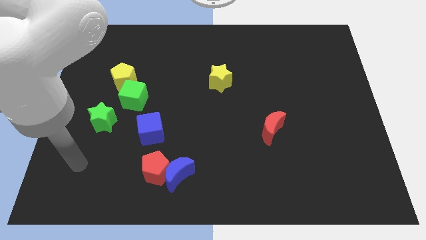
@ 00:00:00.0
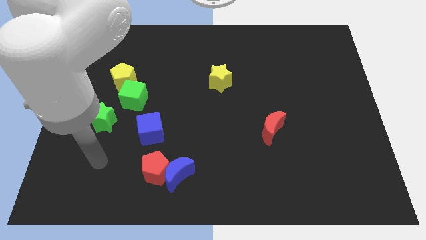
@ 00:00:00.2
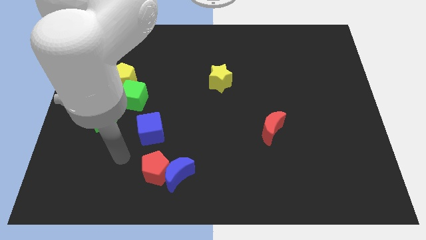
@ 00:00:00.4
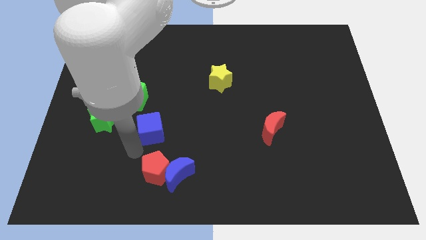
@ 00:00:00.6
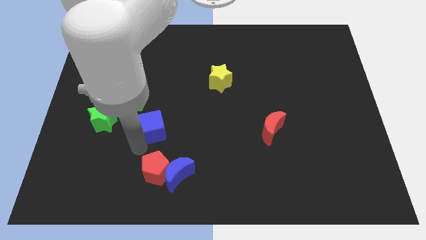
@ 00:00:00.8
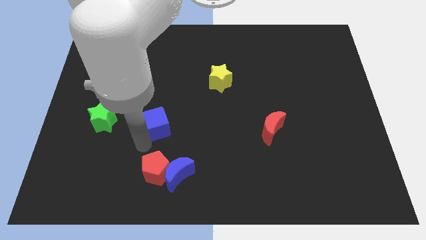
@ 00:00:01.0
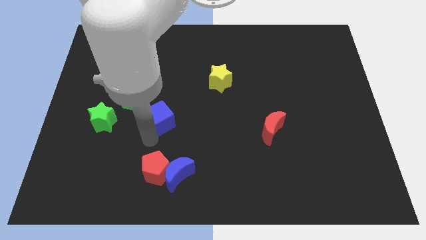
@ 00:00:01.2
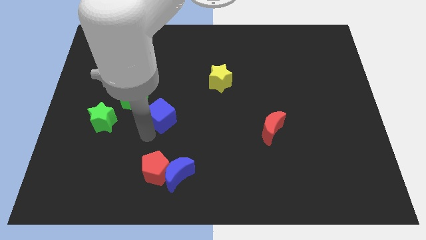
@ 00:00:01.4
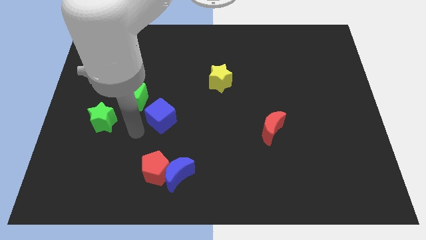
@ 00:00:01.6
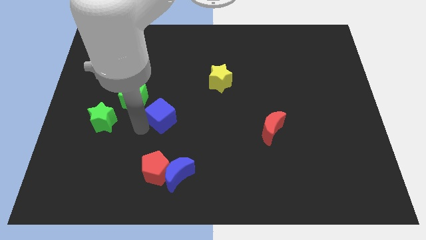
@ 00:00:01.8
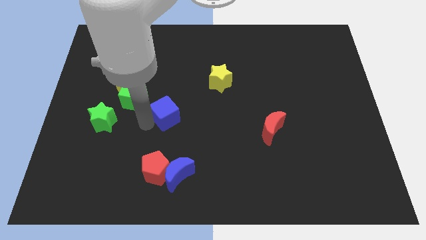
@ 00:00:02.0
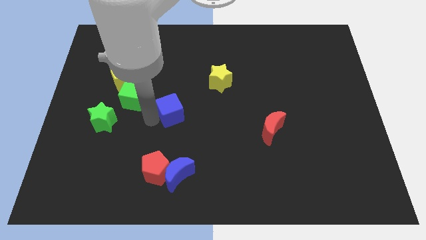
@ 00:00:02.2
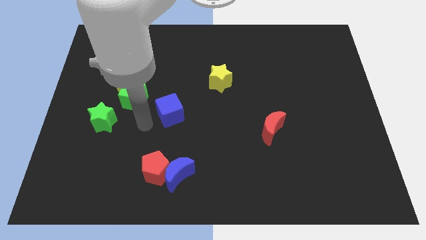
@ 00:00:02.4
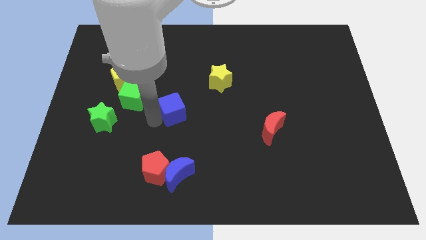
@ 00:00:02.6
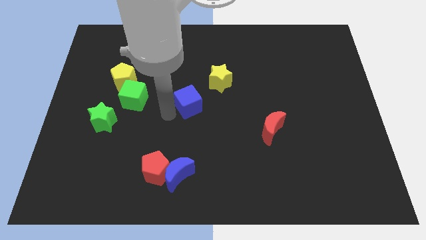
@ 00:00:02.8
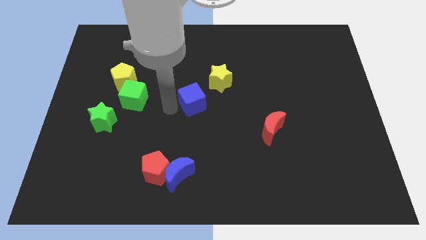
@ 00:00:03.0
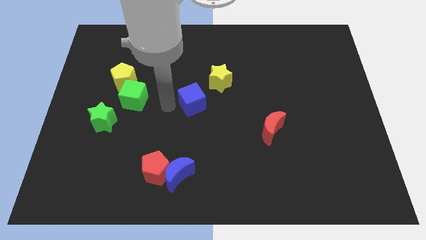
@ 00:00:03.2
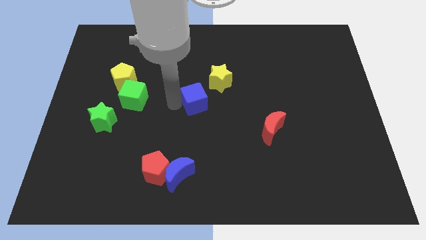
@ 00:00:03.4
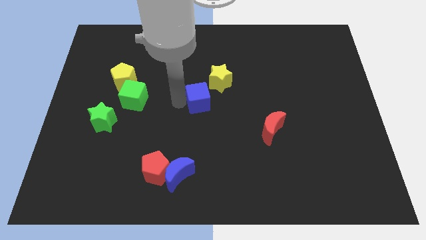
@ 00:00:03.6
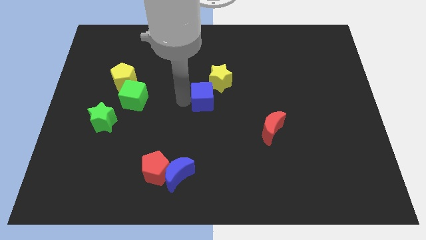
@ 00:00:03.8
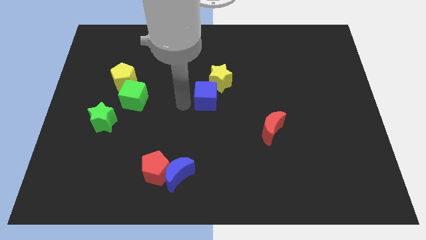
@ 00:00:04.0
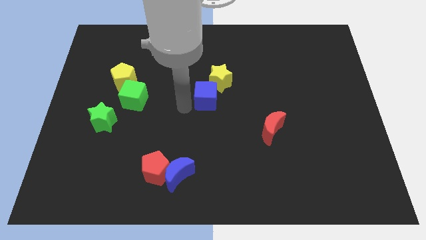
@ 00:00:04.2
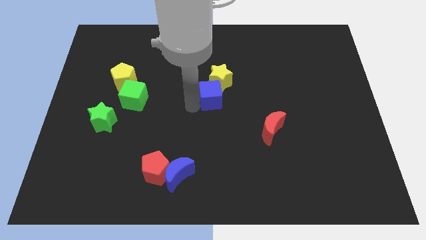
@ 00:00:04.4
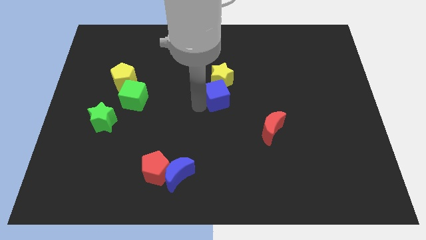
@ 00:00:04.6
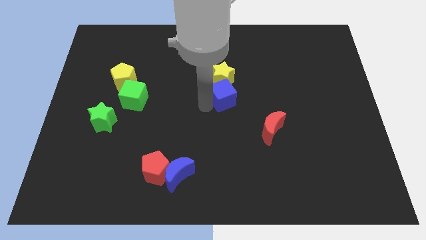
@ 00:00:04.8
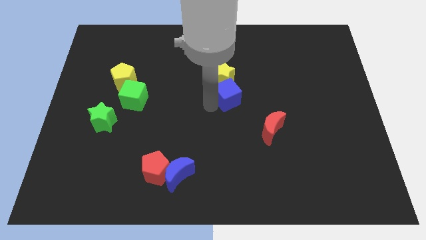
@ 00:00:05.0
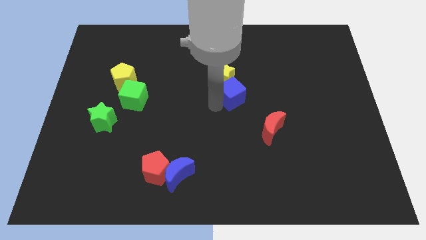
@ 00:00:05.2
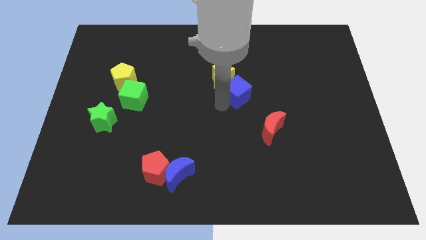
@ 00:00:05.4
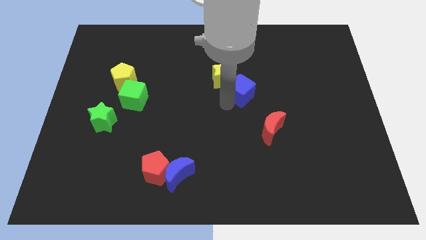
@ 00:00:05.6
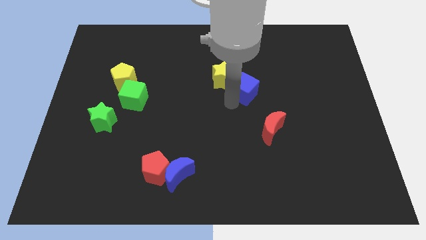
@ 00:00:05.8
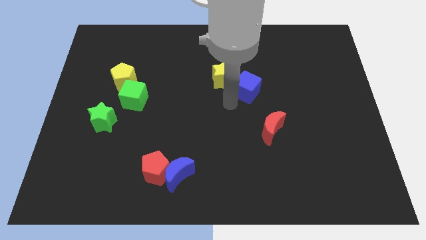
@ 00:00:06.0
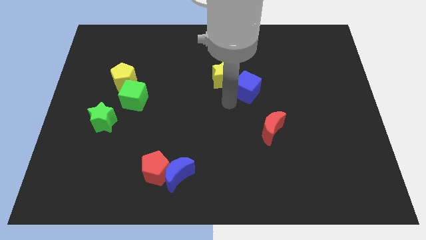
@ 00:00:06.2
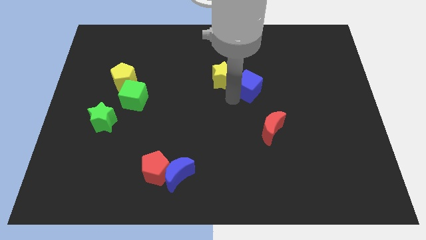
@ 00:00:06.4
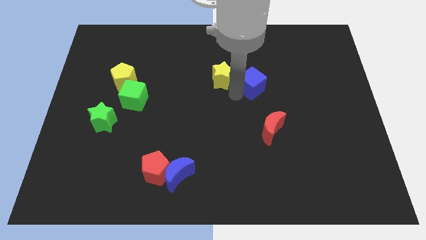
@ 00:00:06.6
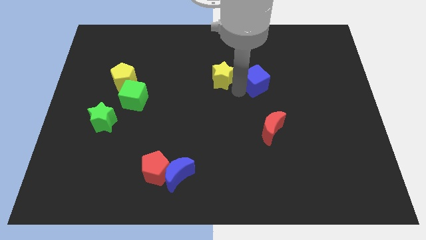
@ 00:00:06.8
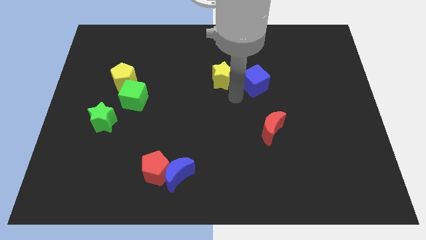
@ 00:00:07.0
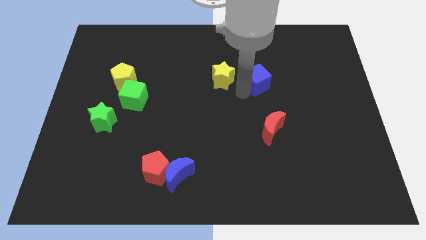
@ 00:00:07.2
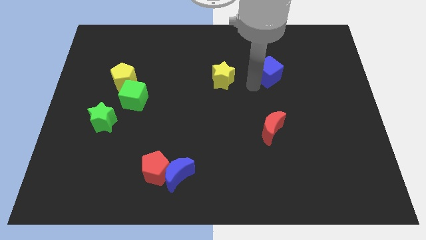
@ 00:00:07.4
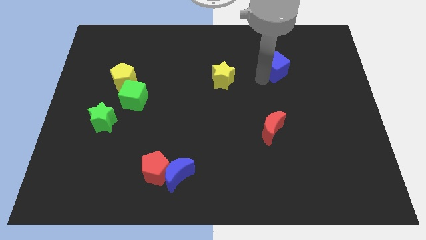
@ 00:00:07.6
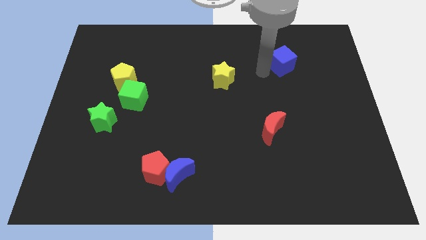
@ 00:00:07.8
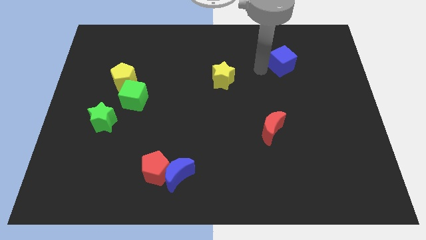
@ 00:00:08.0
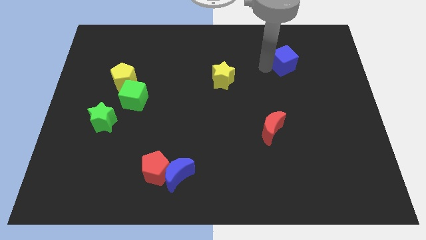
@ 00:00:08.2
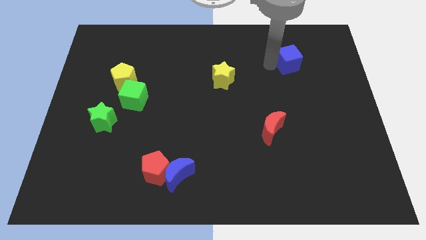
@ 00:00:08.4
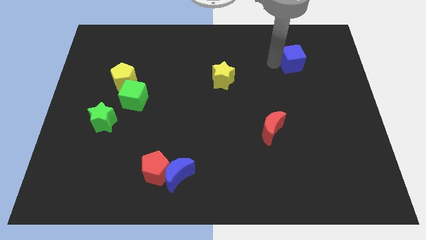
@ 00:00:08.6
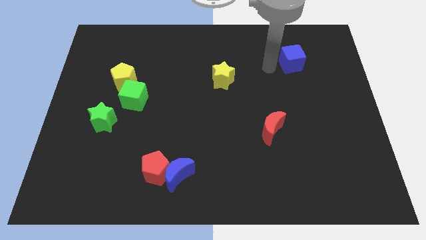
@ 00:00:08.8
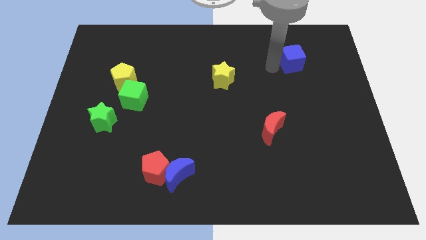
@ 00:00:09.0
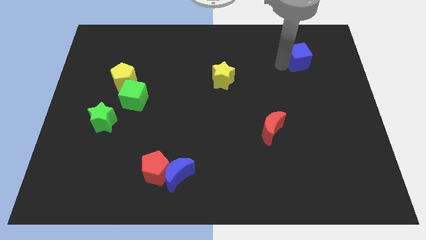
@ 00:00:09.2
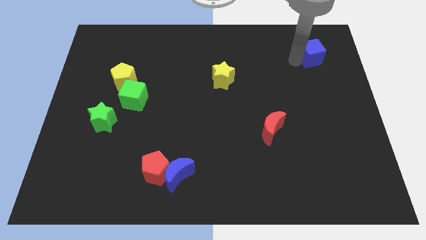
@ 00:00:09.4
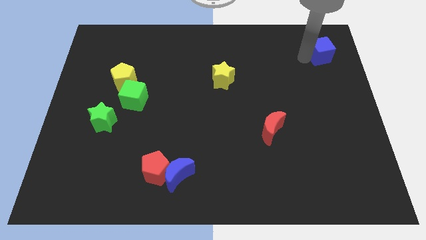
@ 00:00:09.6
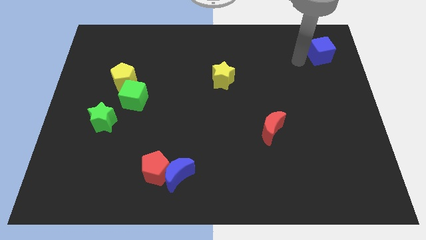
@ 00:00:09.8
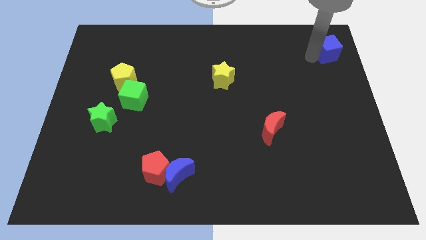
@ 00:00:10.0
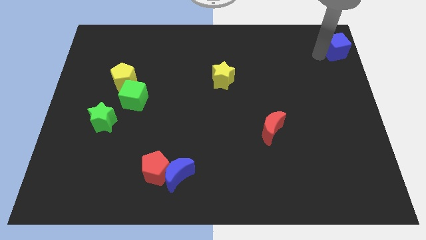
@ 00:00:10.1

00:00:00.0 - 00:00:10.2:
slide the blue cube to the upper right corner

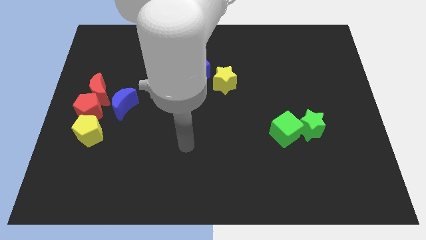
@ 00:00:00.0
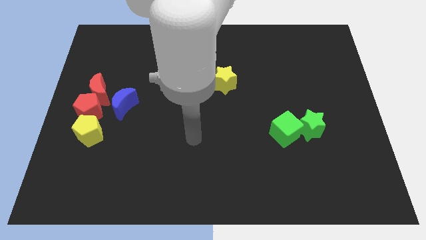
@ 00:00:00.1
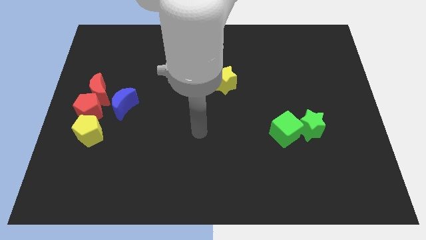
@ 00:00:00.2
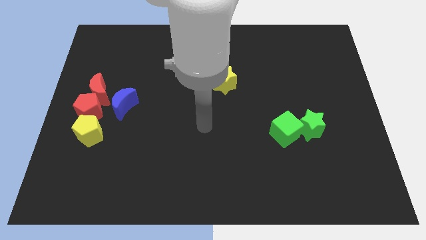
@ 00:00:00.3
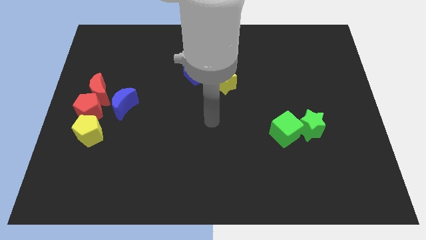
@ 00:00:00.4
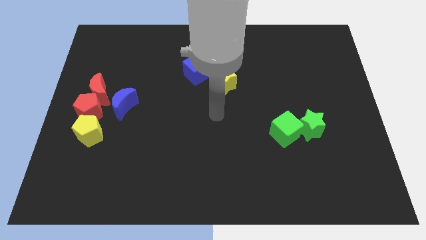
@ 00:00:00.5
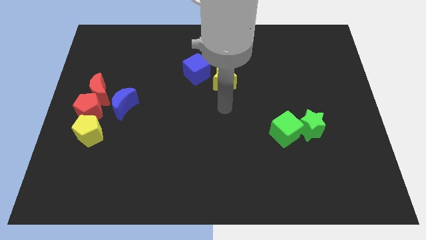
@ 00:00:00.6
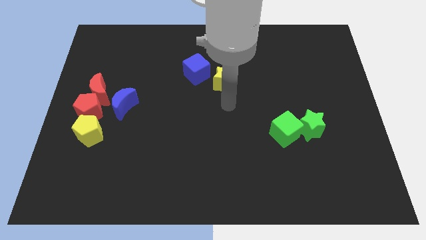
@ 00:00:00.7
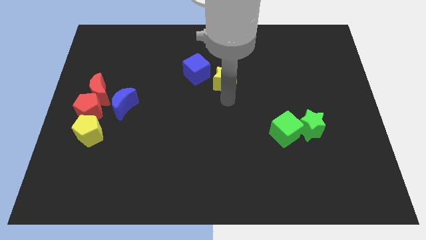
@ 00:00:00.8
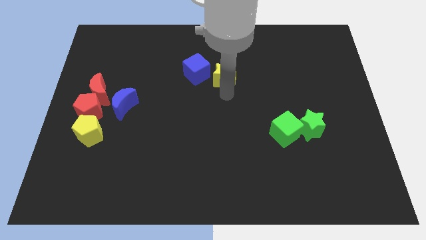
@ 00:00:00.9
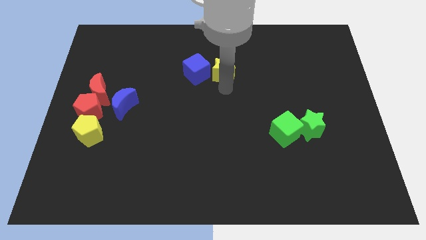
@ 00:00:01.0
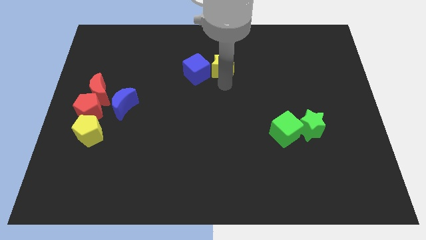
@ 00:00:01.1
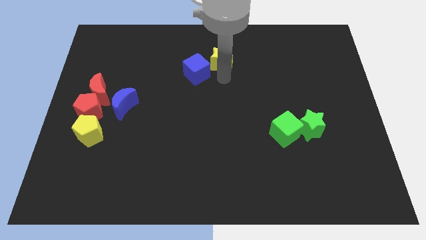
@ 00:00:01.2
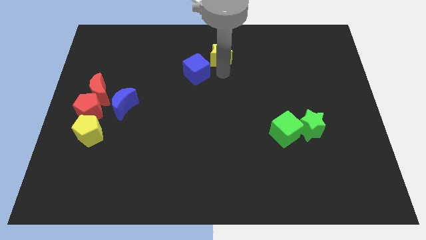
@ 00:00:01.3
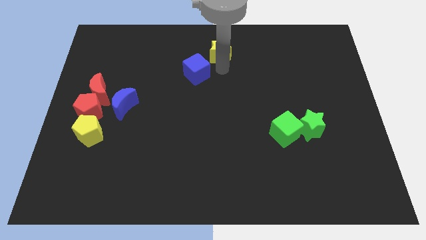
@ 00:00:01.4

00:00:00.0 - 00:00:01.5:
move the yellow star to the top
